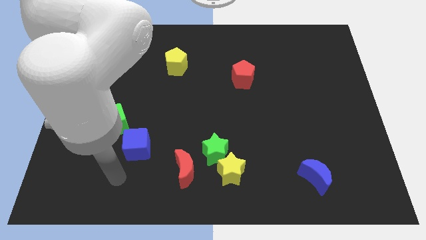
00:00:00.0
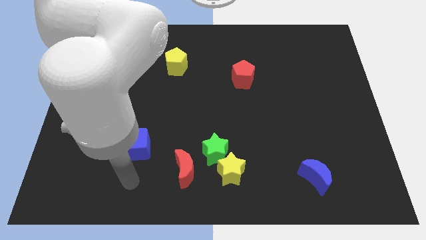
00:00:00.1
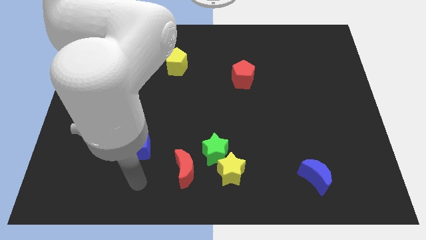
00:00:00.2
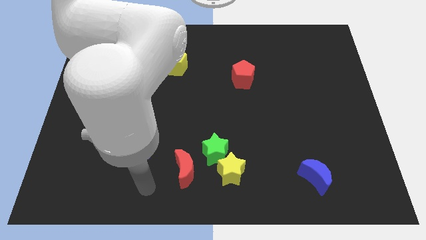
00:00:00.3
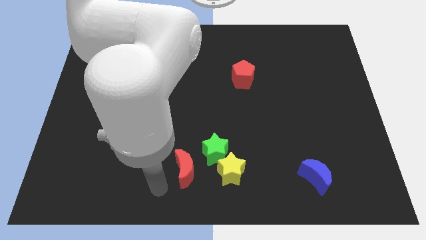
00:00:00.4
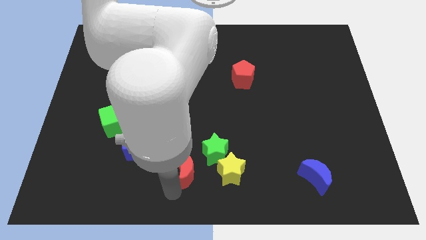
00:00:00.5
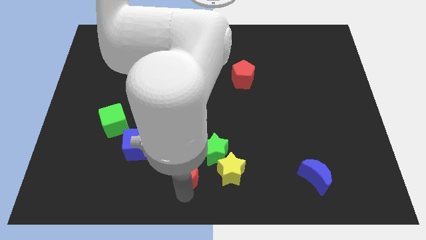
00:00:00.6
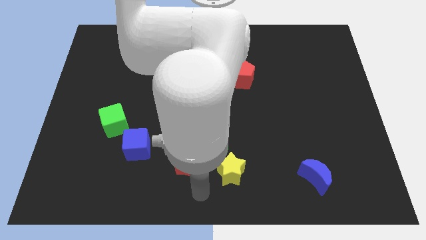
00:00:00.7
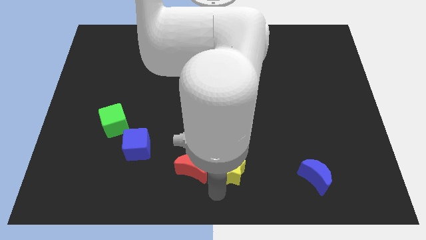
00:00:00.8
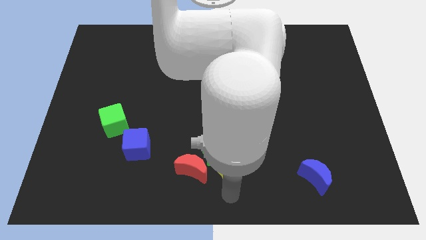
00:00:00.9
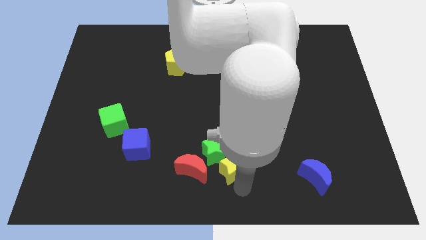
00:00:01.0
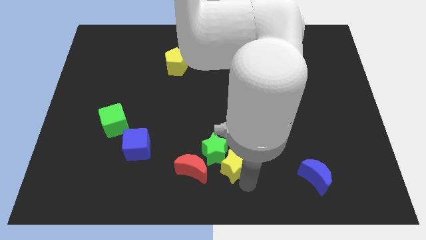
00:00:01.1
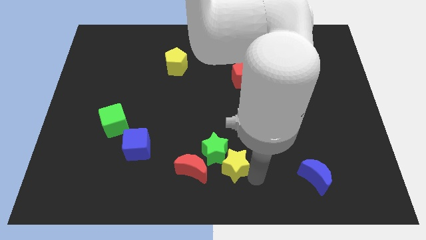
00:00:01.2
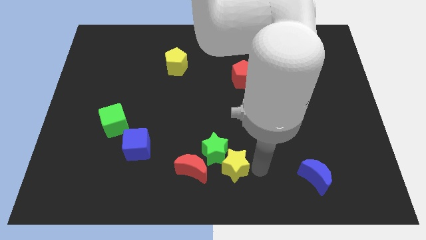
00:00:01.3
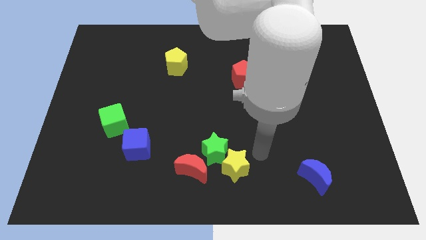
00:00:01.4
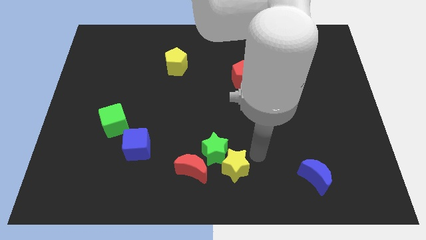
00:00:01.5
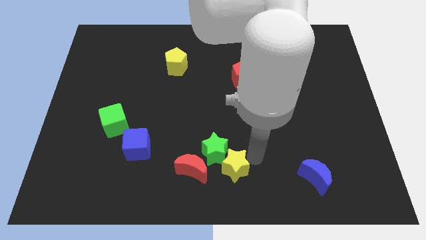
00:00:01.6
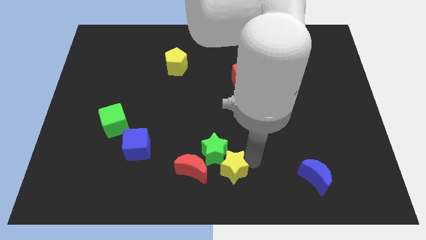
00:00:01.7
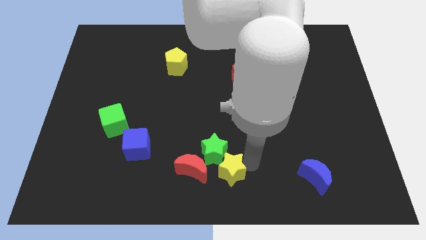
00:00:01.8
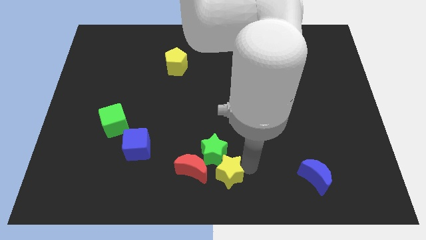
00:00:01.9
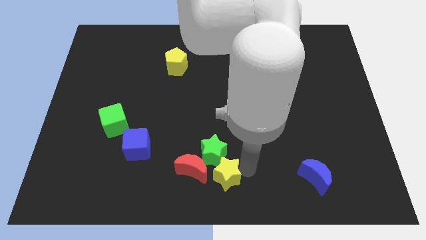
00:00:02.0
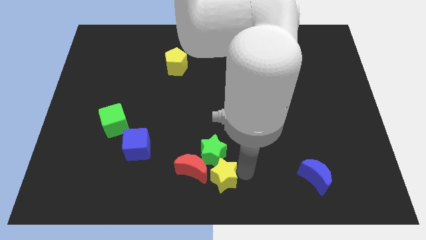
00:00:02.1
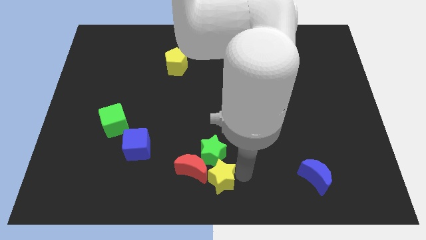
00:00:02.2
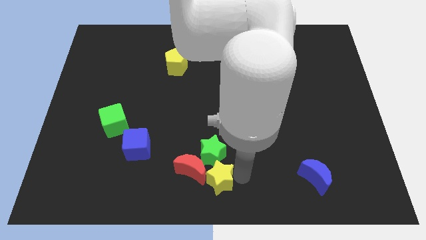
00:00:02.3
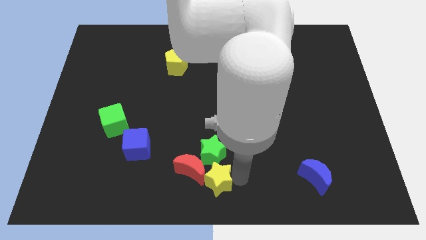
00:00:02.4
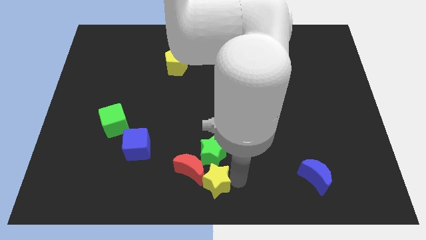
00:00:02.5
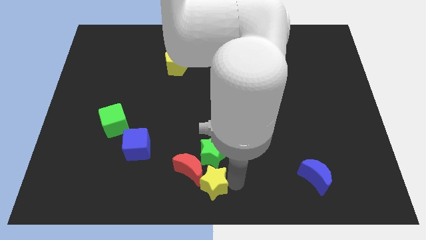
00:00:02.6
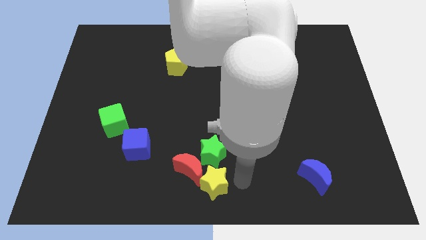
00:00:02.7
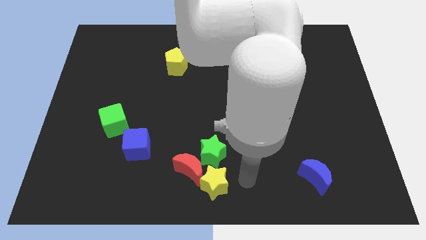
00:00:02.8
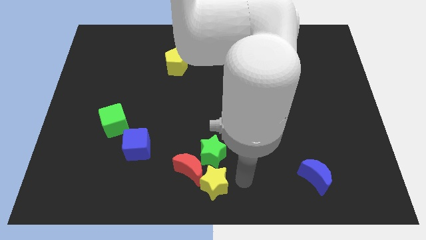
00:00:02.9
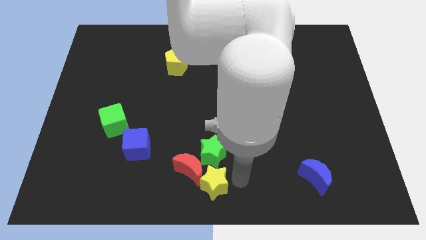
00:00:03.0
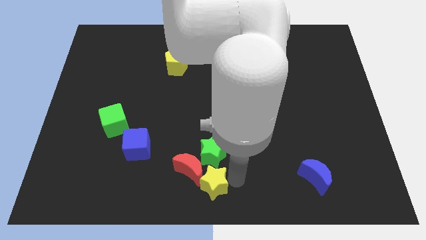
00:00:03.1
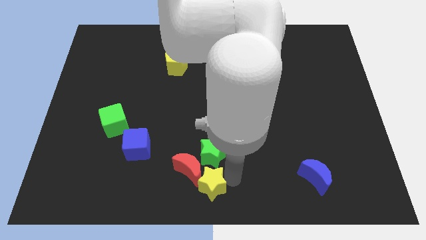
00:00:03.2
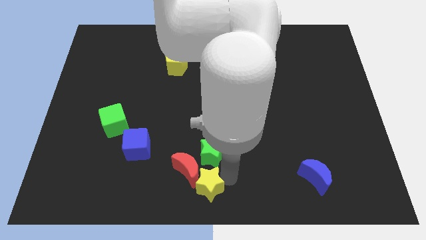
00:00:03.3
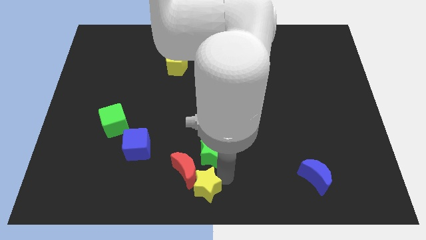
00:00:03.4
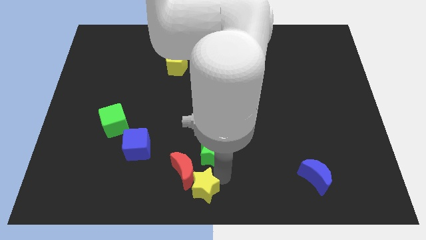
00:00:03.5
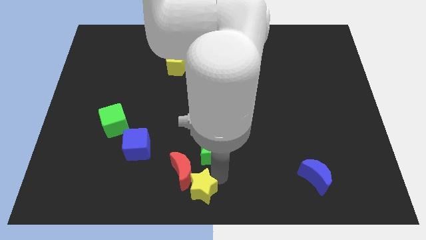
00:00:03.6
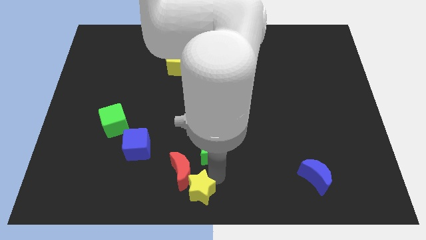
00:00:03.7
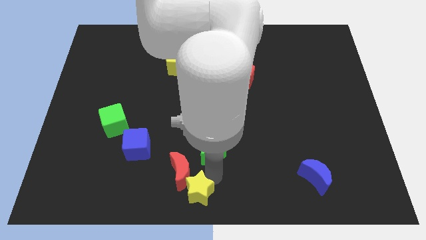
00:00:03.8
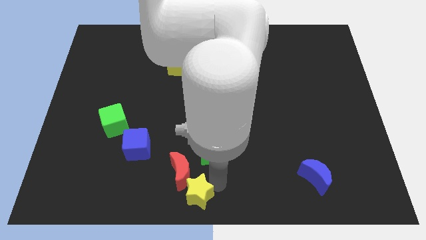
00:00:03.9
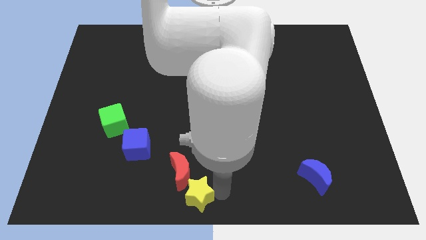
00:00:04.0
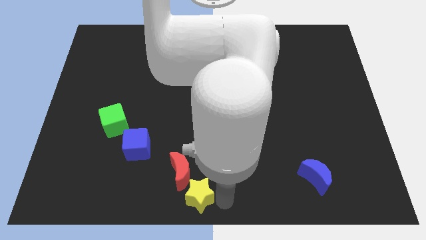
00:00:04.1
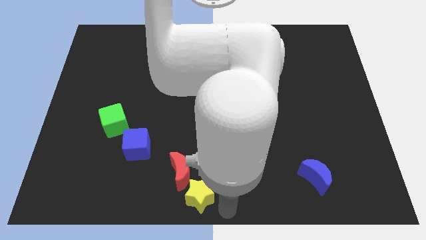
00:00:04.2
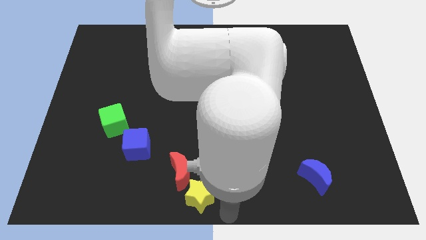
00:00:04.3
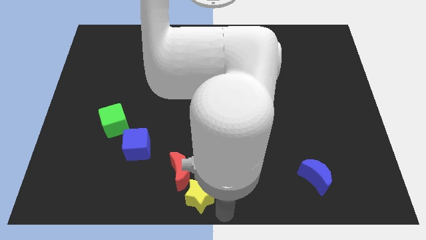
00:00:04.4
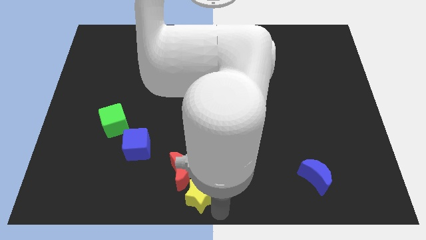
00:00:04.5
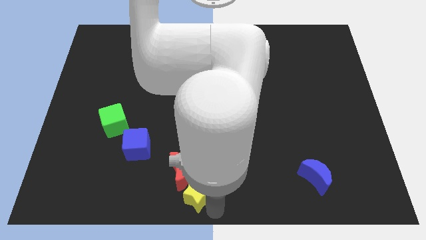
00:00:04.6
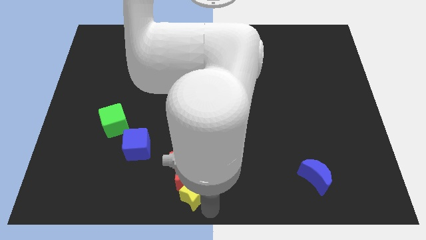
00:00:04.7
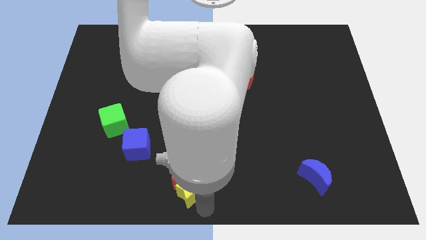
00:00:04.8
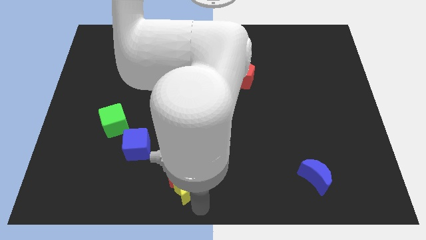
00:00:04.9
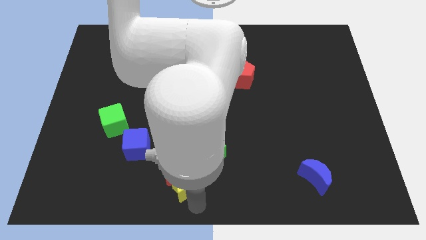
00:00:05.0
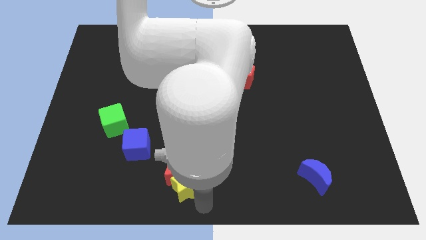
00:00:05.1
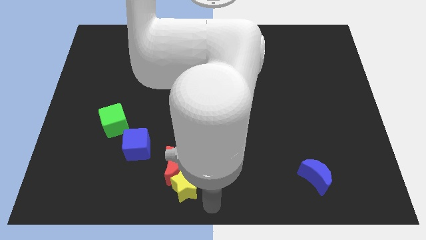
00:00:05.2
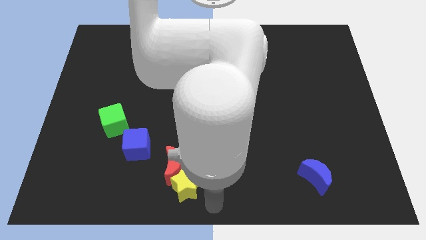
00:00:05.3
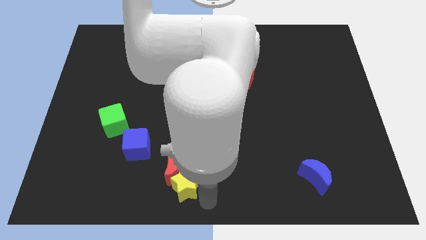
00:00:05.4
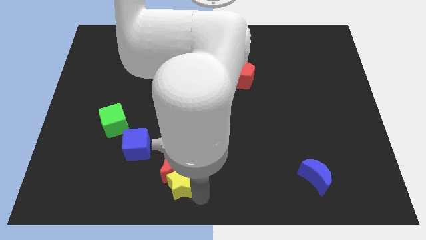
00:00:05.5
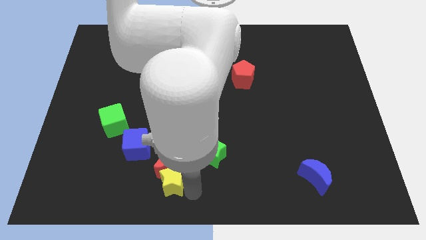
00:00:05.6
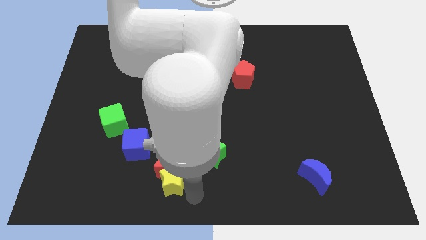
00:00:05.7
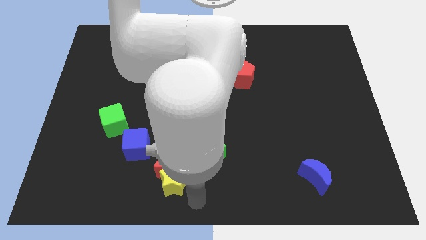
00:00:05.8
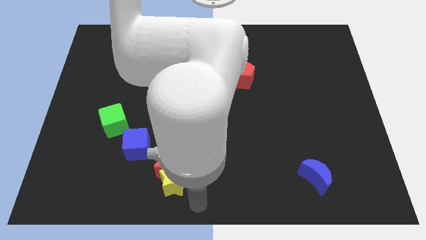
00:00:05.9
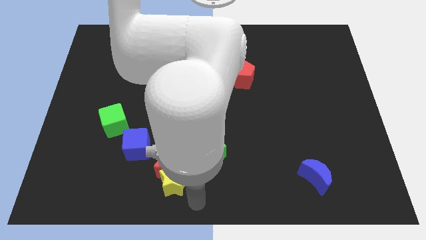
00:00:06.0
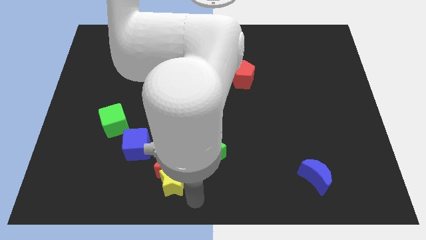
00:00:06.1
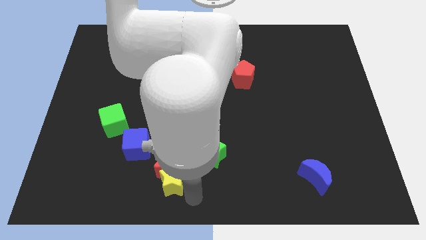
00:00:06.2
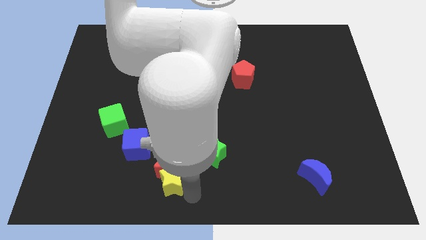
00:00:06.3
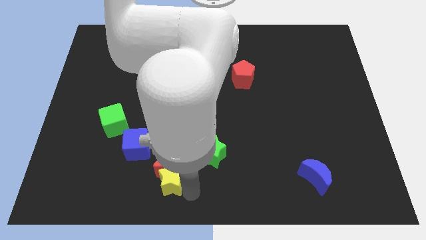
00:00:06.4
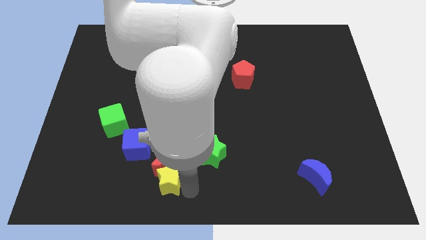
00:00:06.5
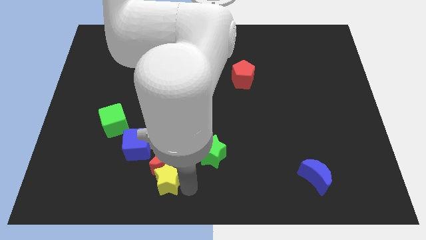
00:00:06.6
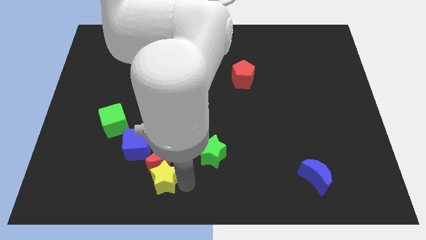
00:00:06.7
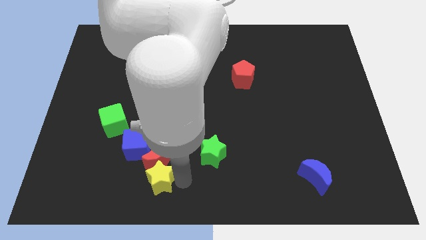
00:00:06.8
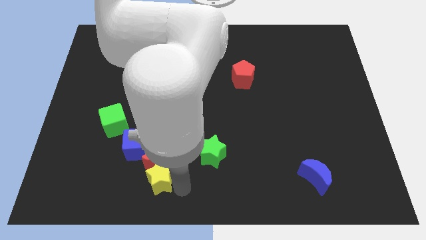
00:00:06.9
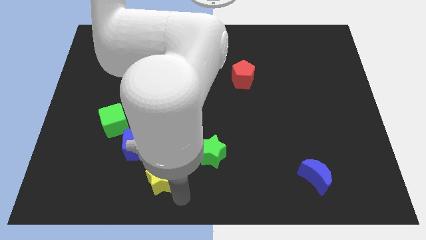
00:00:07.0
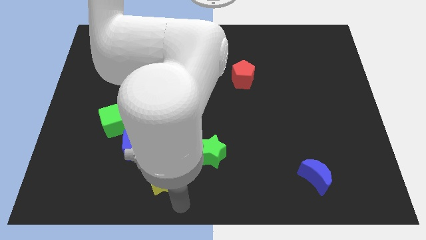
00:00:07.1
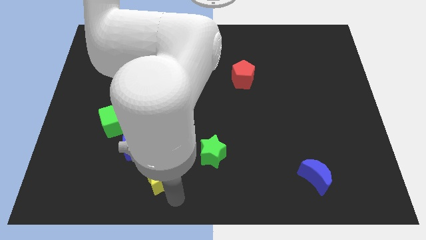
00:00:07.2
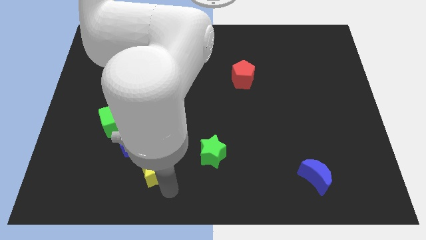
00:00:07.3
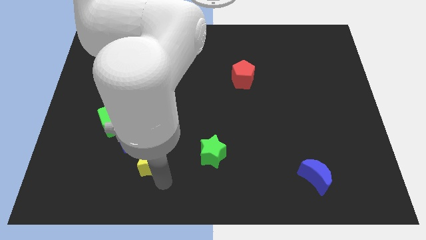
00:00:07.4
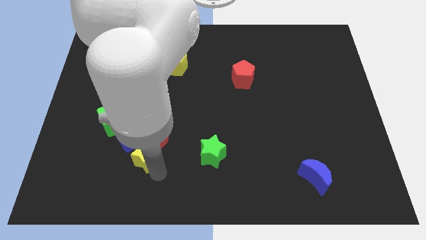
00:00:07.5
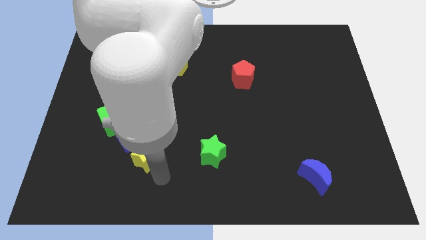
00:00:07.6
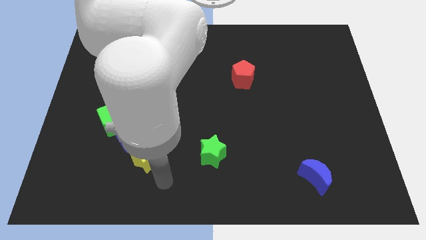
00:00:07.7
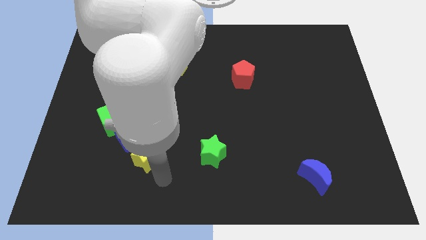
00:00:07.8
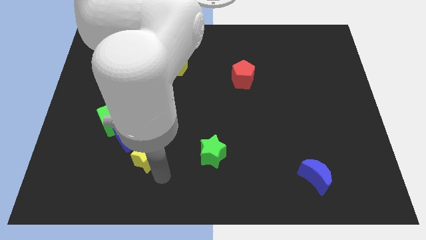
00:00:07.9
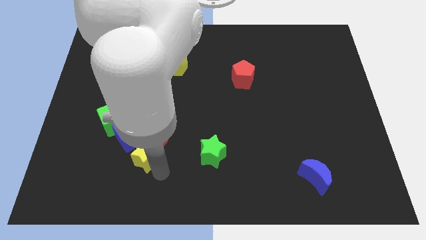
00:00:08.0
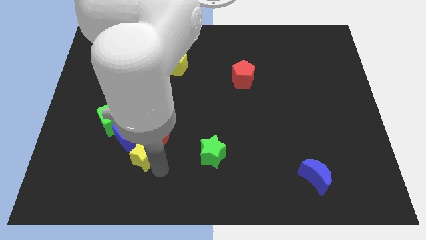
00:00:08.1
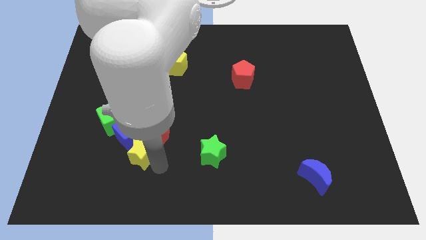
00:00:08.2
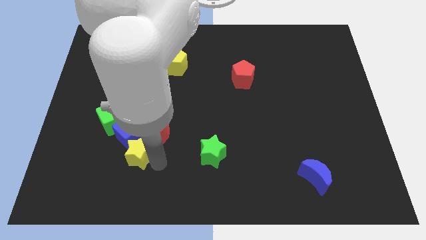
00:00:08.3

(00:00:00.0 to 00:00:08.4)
move the yellow star close to the blue cube
